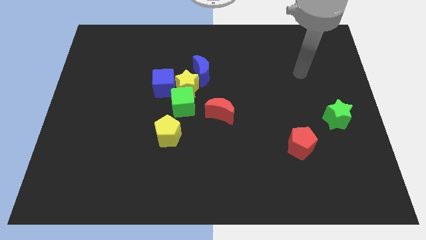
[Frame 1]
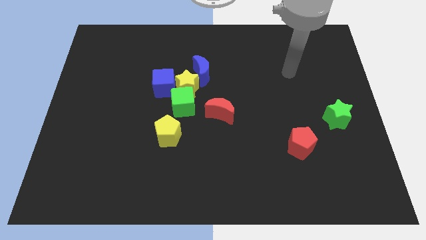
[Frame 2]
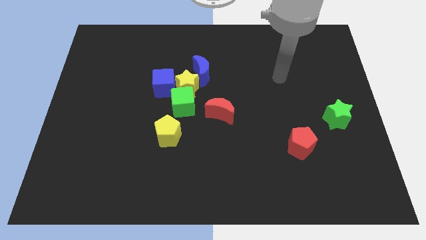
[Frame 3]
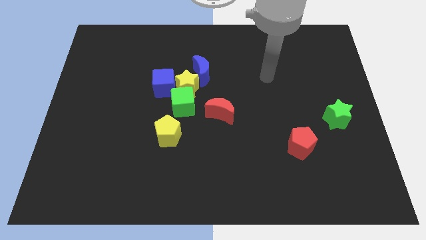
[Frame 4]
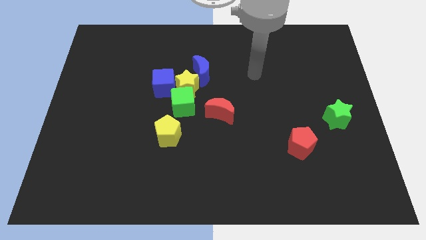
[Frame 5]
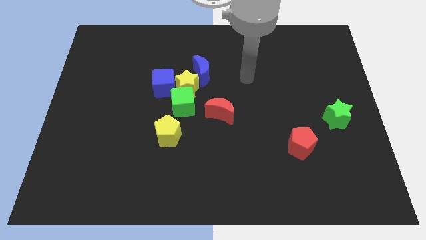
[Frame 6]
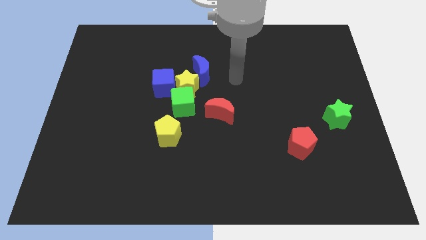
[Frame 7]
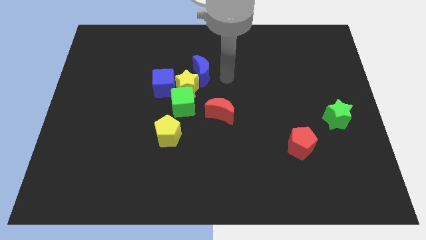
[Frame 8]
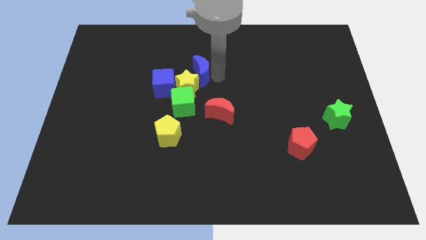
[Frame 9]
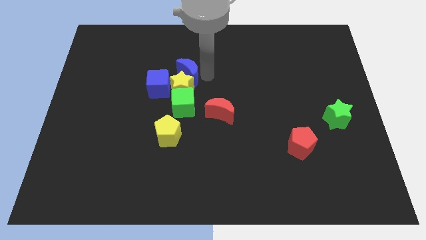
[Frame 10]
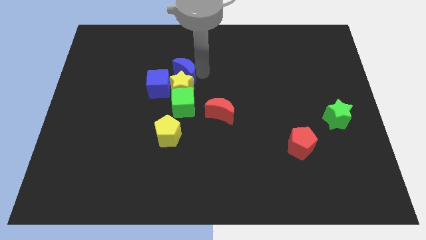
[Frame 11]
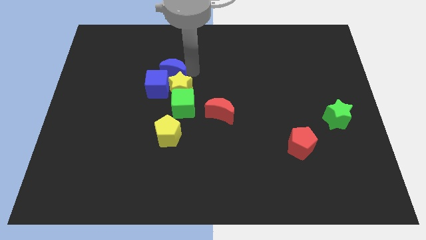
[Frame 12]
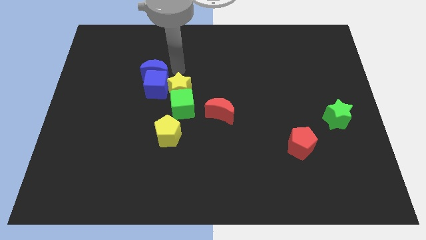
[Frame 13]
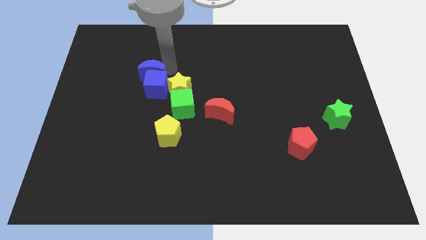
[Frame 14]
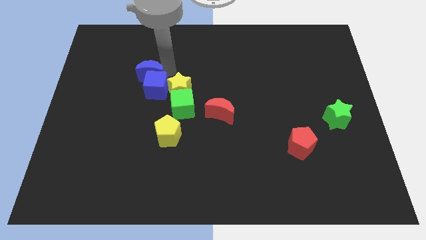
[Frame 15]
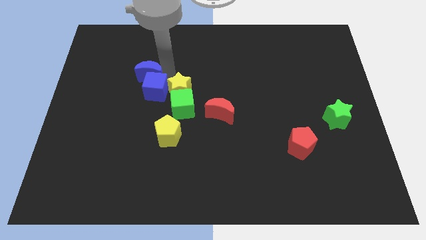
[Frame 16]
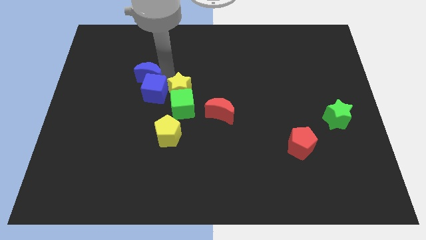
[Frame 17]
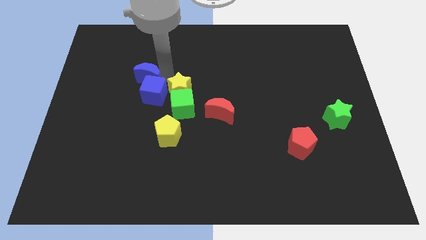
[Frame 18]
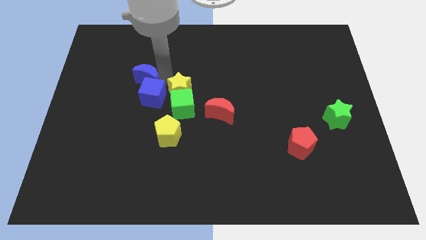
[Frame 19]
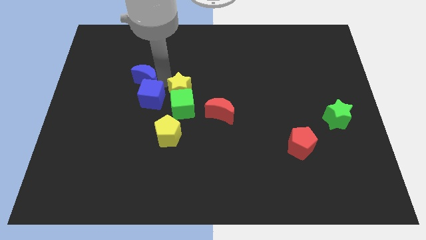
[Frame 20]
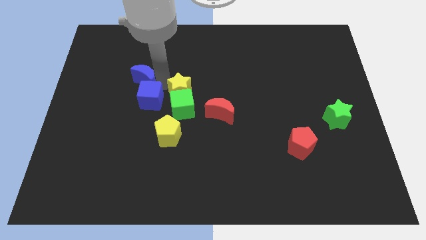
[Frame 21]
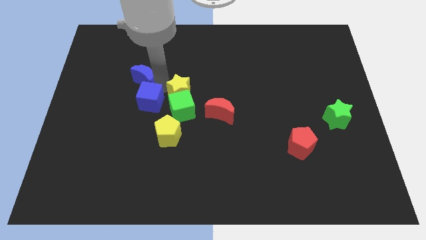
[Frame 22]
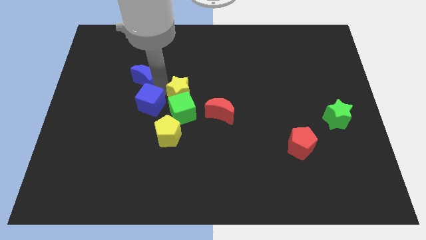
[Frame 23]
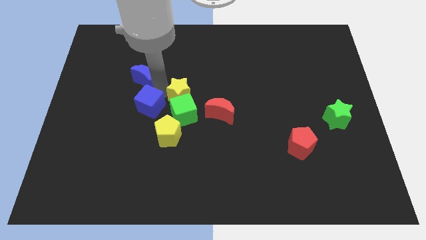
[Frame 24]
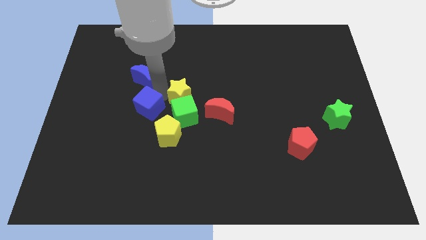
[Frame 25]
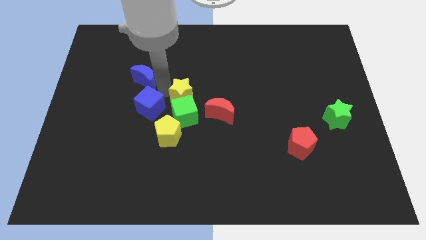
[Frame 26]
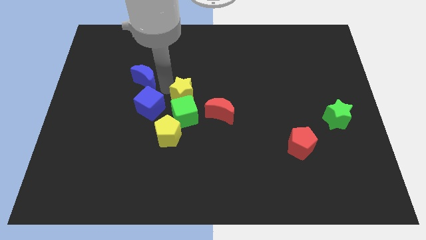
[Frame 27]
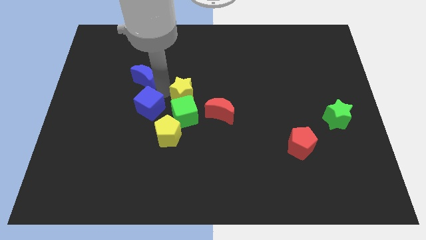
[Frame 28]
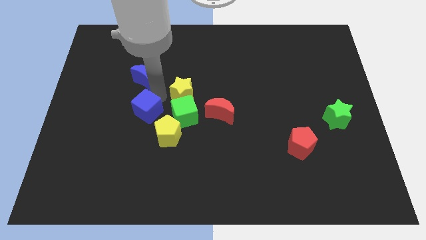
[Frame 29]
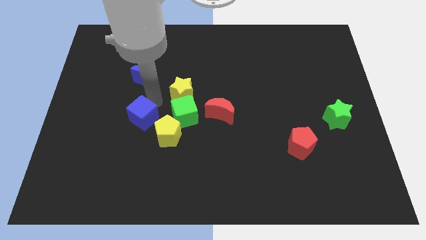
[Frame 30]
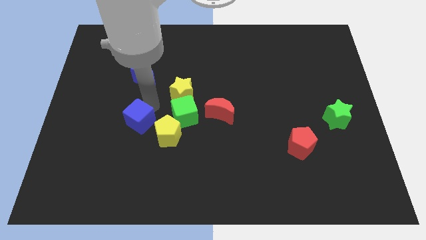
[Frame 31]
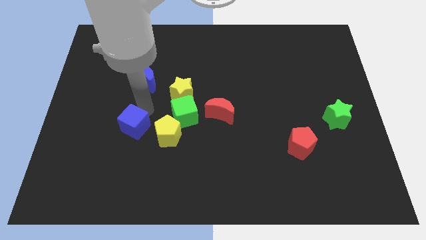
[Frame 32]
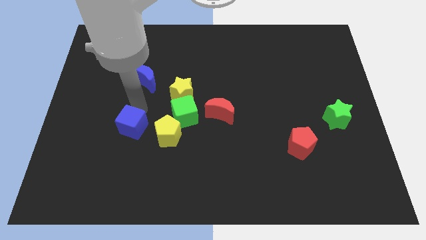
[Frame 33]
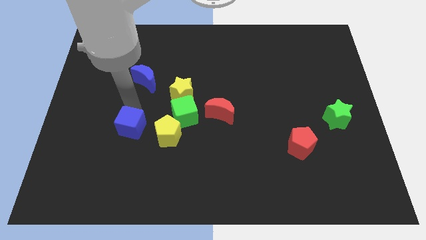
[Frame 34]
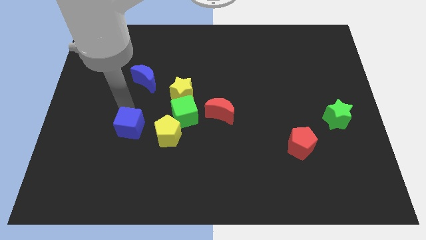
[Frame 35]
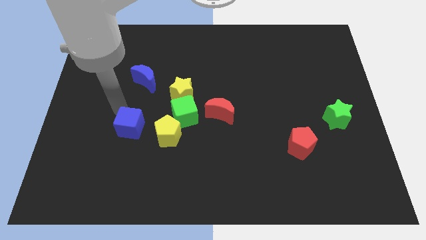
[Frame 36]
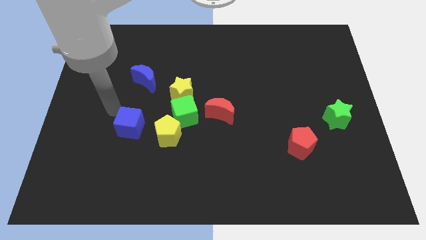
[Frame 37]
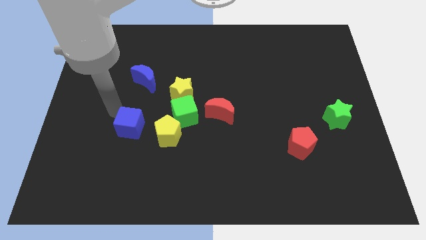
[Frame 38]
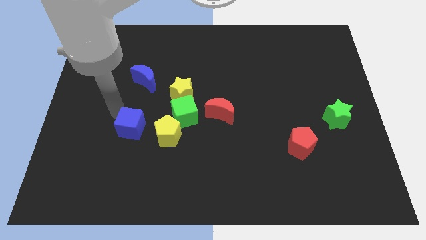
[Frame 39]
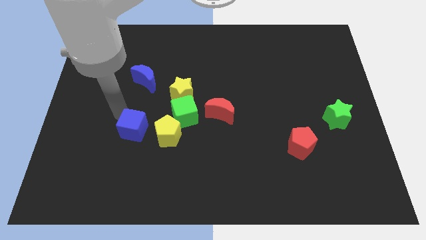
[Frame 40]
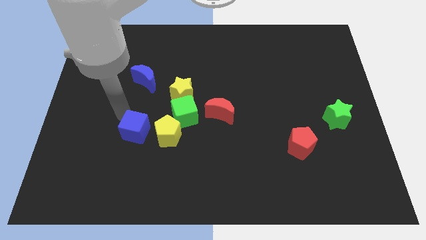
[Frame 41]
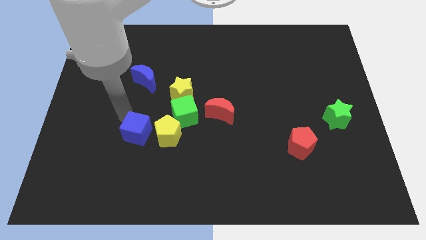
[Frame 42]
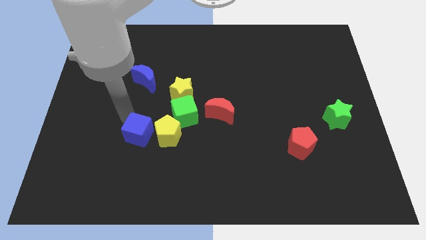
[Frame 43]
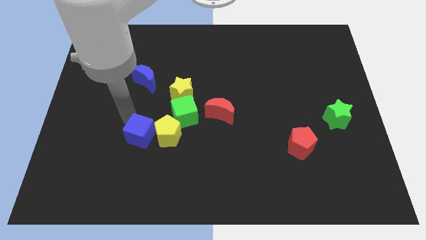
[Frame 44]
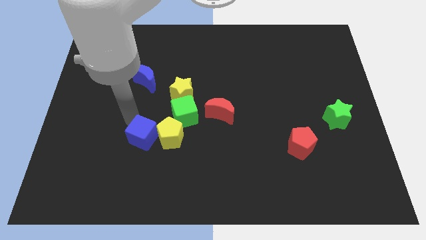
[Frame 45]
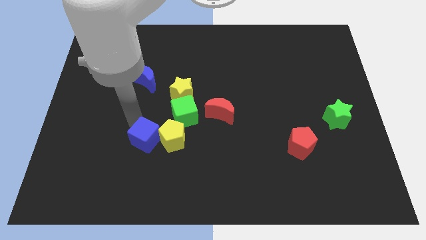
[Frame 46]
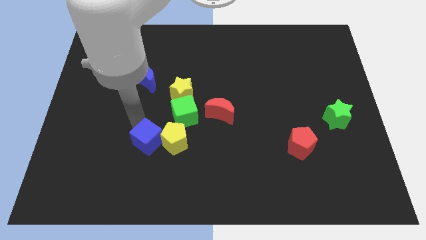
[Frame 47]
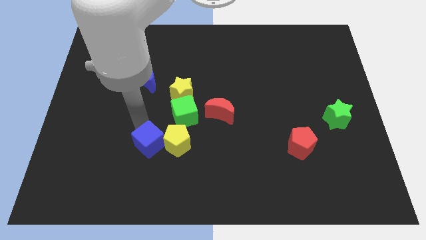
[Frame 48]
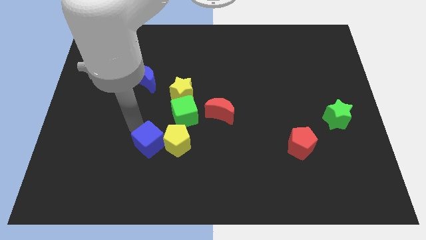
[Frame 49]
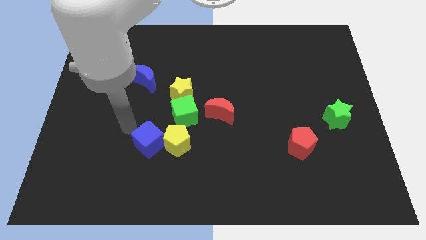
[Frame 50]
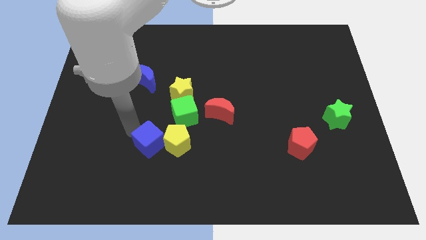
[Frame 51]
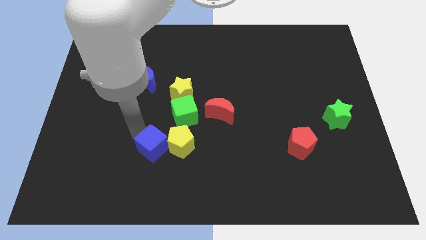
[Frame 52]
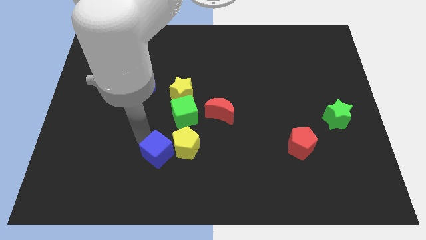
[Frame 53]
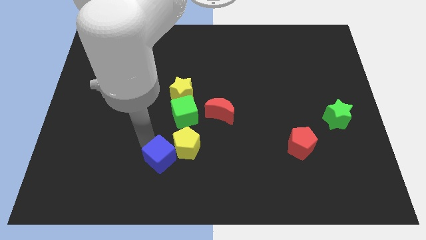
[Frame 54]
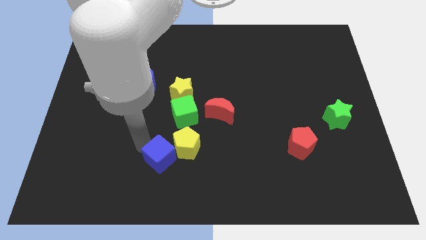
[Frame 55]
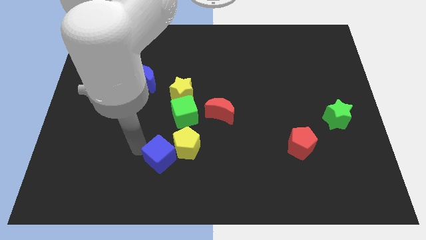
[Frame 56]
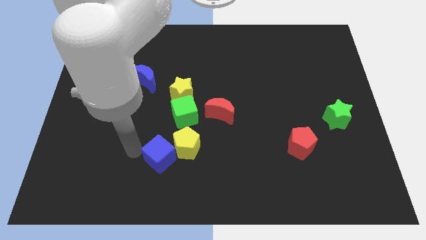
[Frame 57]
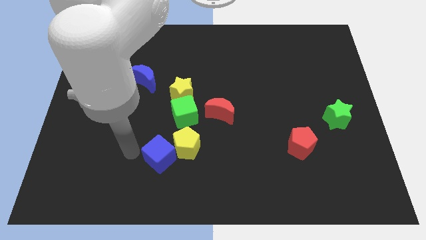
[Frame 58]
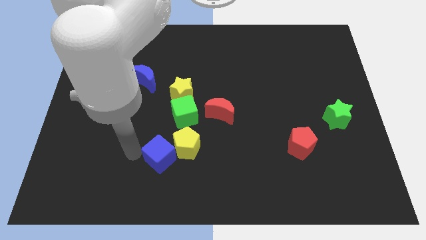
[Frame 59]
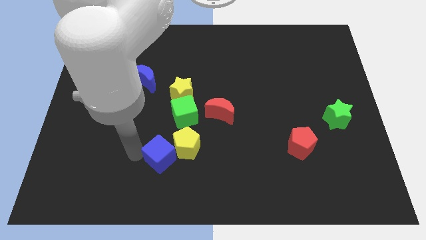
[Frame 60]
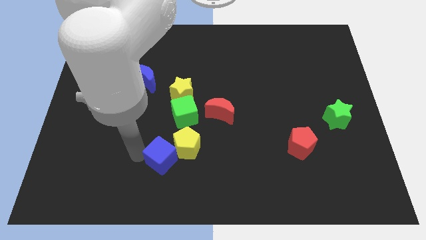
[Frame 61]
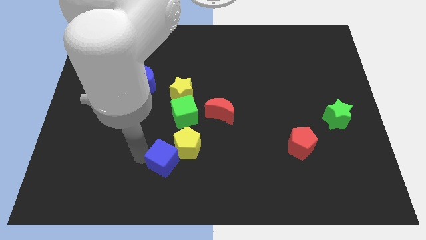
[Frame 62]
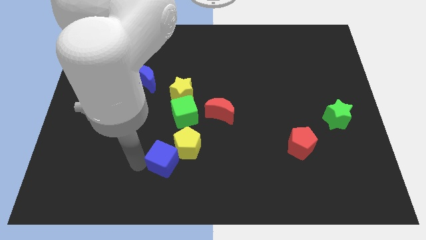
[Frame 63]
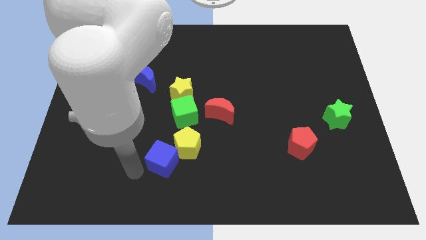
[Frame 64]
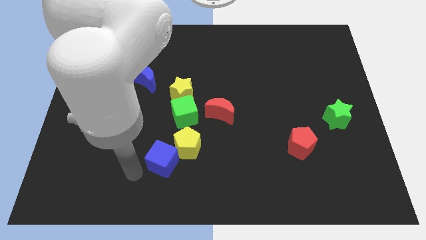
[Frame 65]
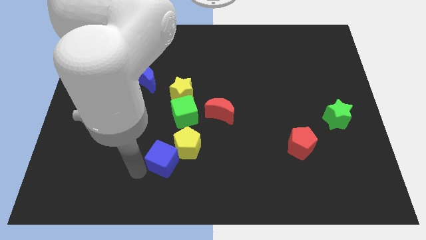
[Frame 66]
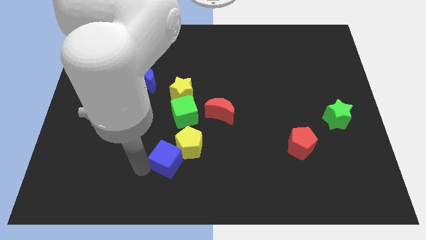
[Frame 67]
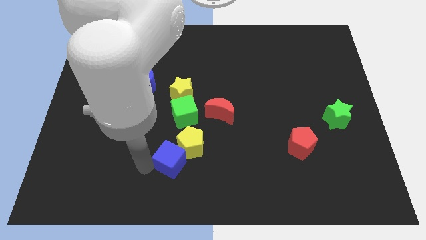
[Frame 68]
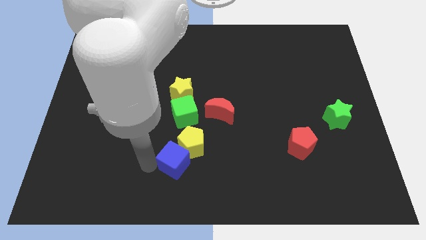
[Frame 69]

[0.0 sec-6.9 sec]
move the blue cube down and then to the right somewhat

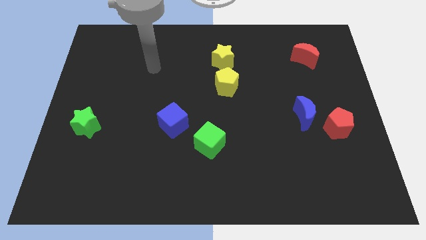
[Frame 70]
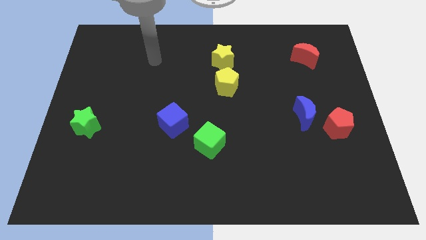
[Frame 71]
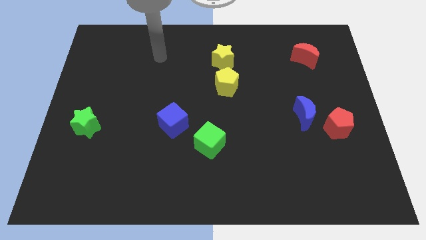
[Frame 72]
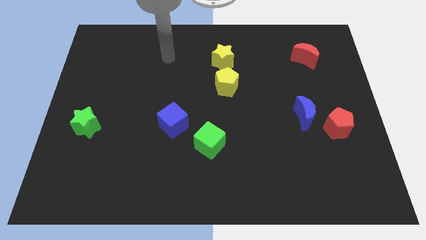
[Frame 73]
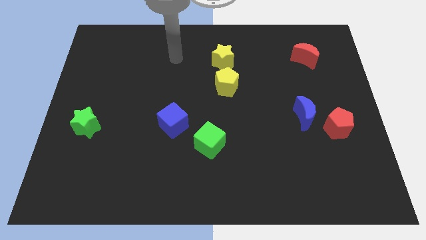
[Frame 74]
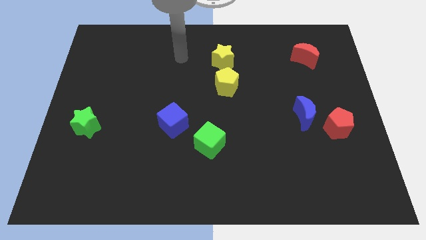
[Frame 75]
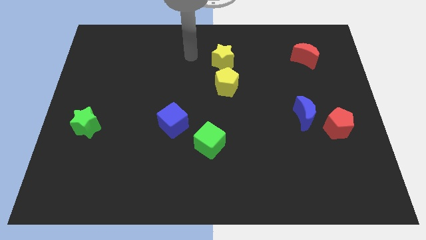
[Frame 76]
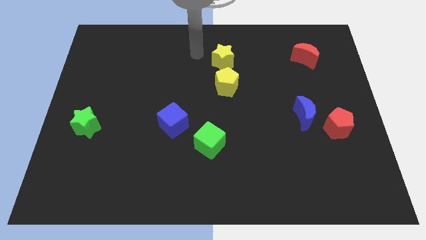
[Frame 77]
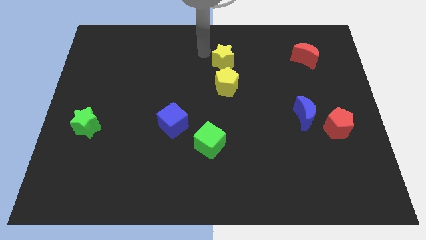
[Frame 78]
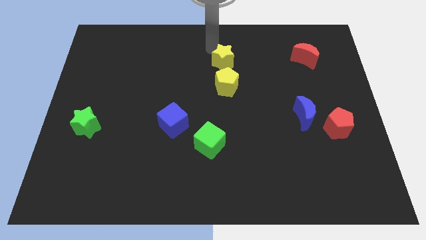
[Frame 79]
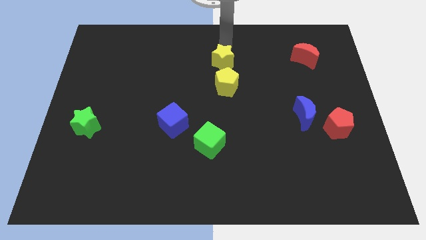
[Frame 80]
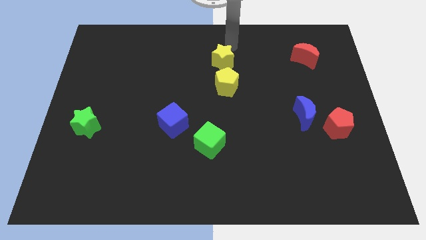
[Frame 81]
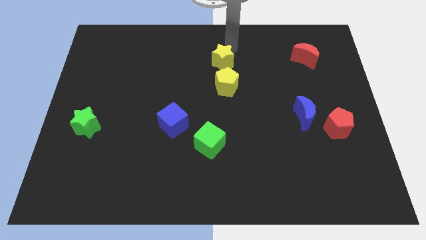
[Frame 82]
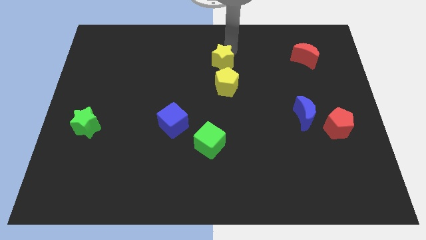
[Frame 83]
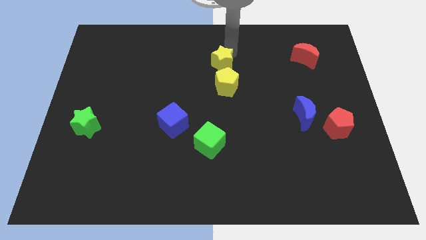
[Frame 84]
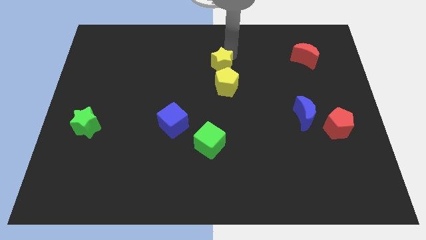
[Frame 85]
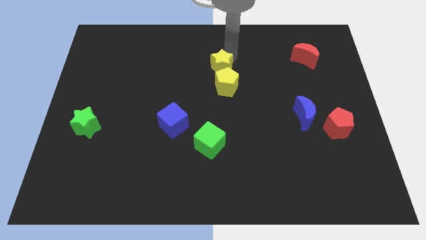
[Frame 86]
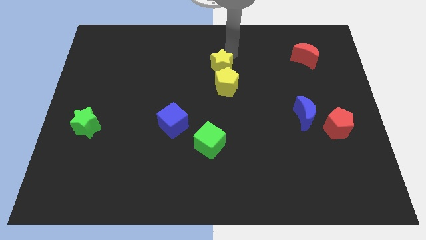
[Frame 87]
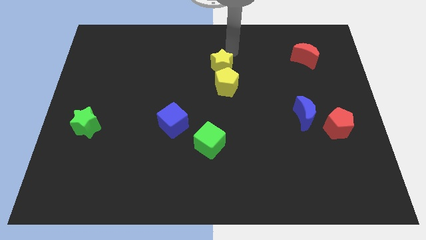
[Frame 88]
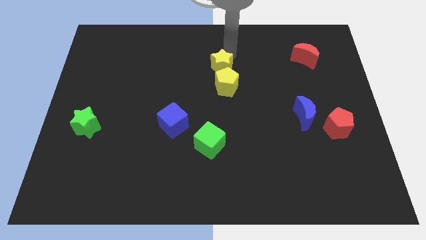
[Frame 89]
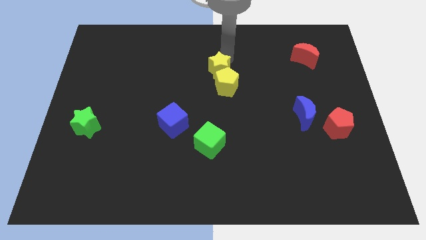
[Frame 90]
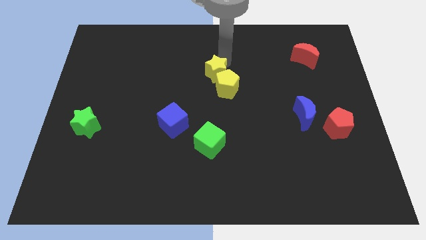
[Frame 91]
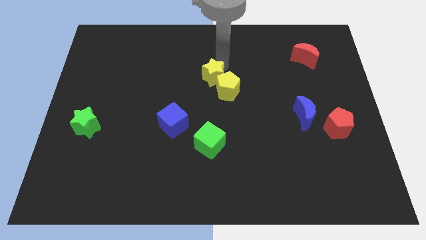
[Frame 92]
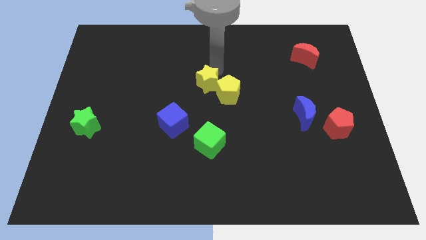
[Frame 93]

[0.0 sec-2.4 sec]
slightly slide the yellow star down
